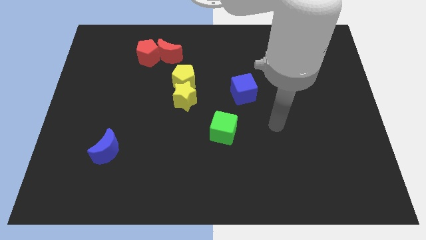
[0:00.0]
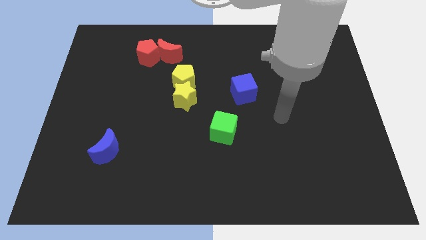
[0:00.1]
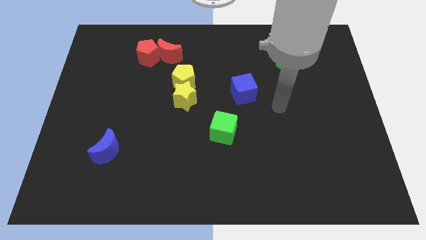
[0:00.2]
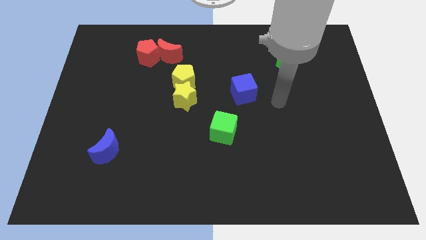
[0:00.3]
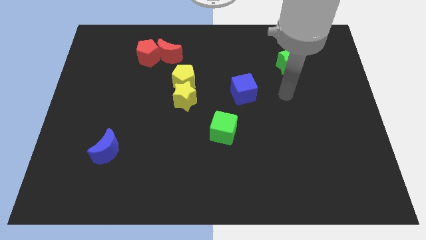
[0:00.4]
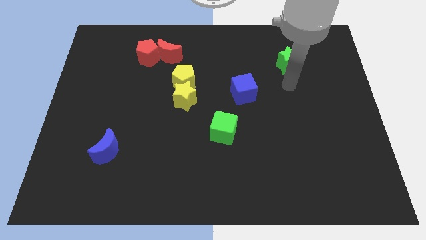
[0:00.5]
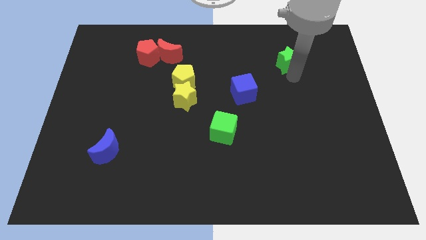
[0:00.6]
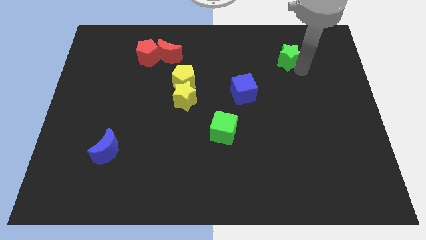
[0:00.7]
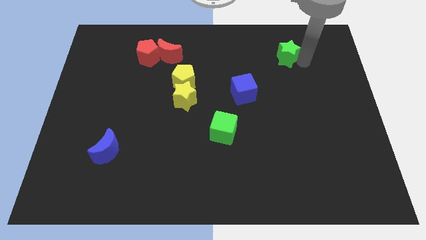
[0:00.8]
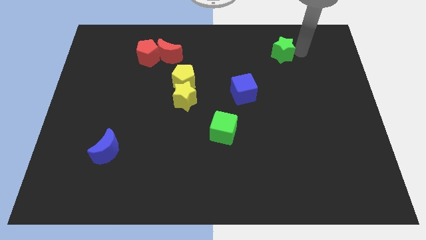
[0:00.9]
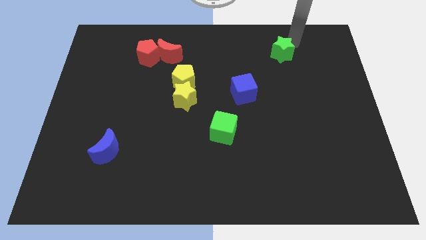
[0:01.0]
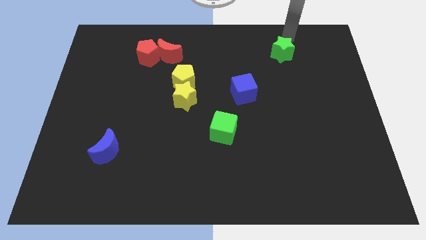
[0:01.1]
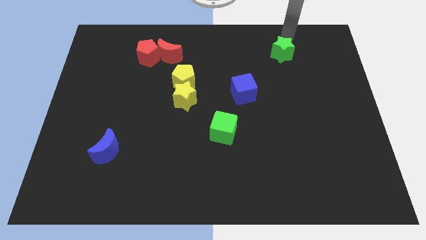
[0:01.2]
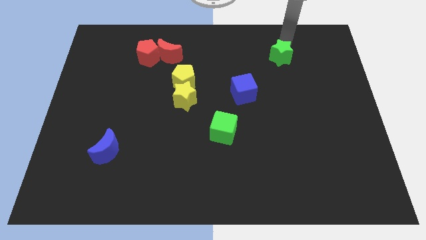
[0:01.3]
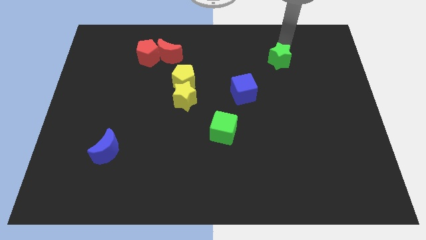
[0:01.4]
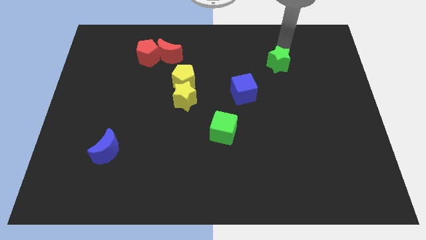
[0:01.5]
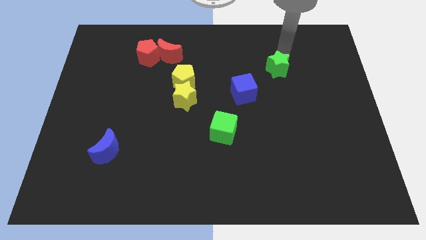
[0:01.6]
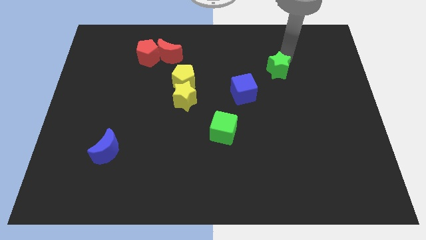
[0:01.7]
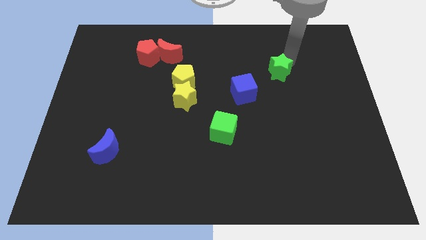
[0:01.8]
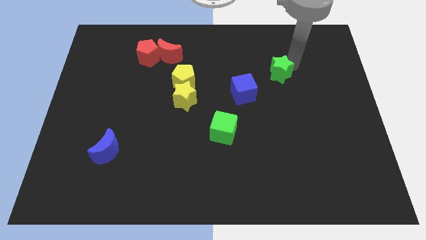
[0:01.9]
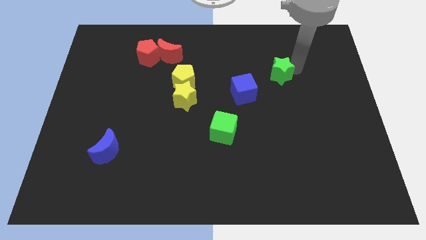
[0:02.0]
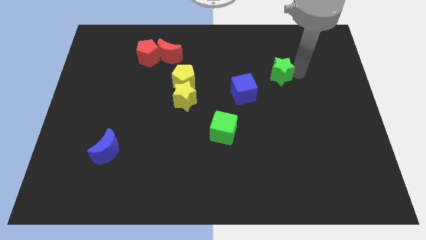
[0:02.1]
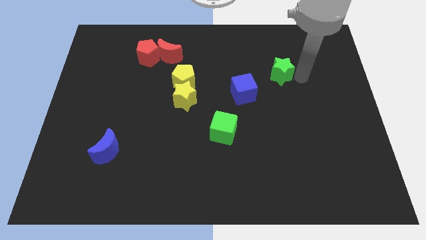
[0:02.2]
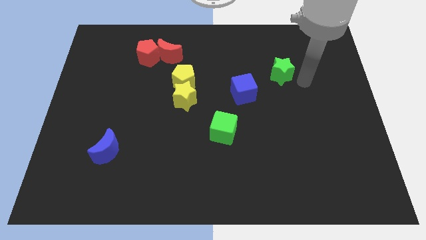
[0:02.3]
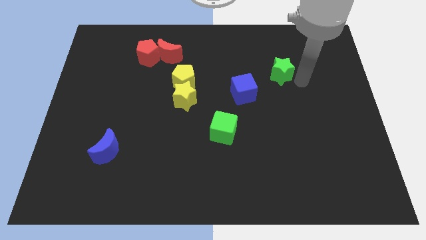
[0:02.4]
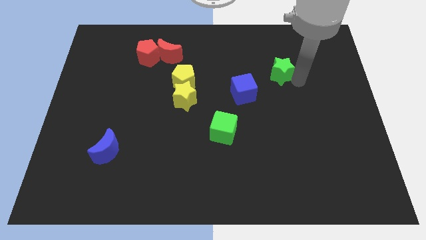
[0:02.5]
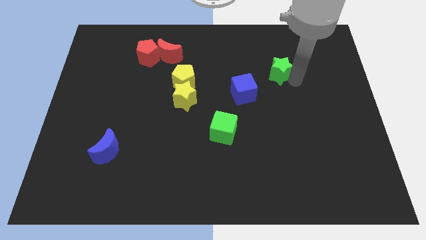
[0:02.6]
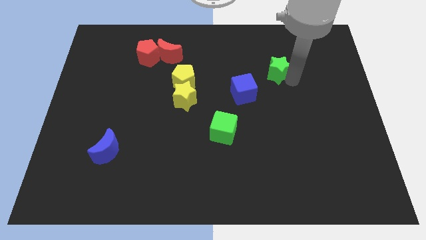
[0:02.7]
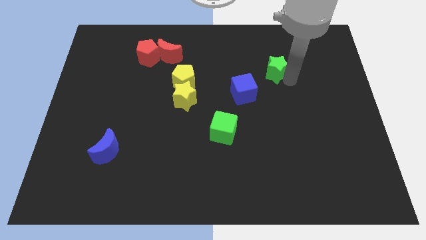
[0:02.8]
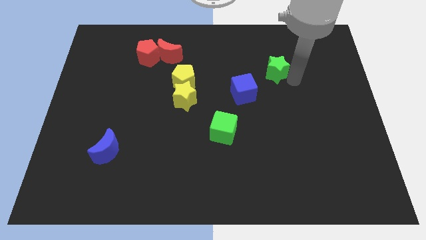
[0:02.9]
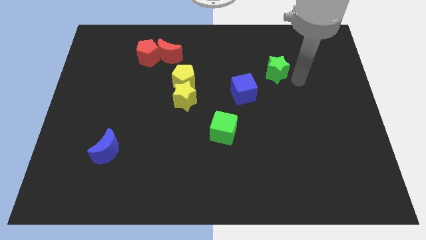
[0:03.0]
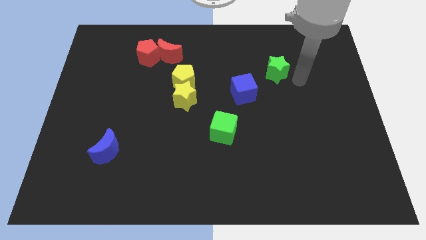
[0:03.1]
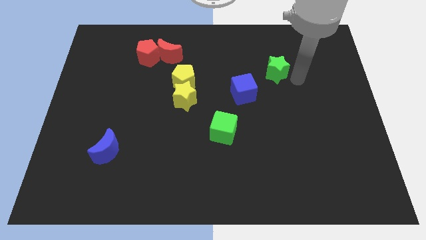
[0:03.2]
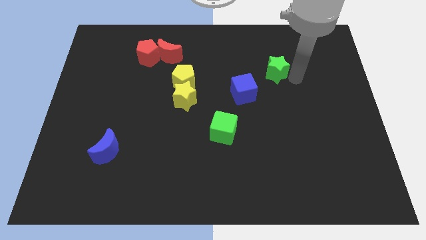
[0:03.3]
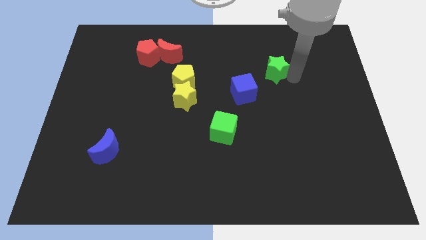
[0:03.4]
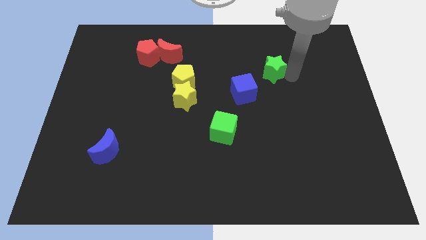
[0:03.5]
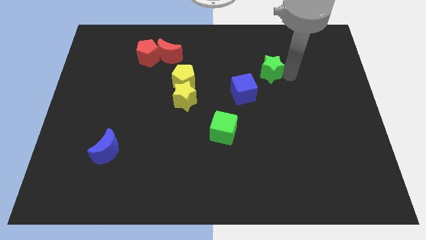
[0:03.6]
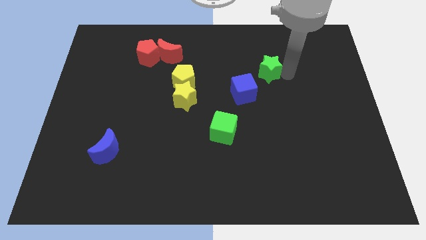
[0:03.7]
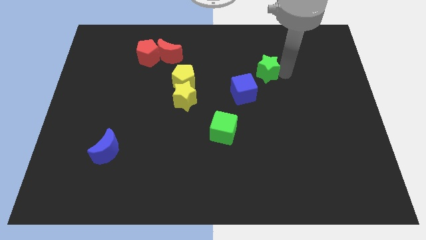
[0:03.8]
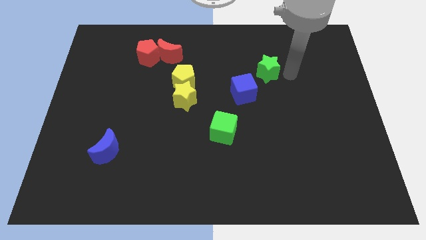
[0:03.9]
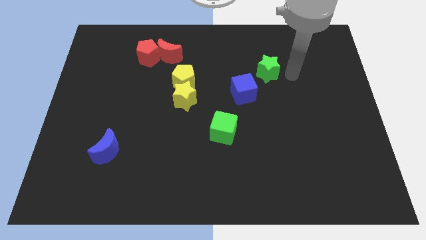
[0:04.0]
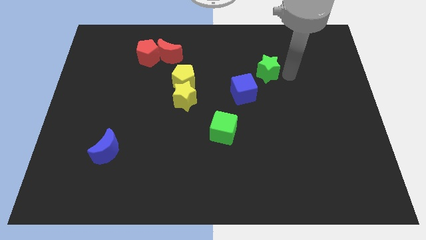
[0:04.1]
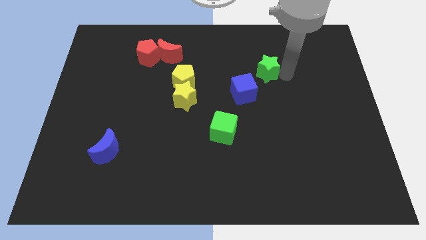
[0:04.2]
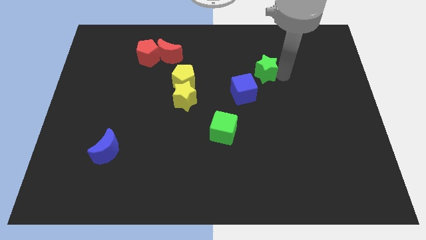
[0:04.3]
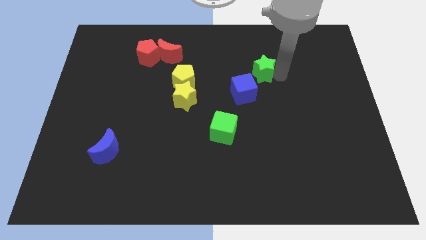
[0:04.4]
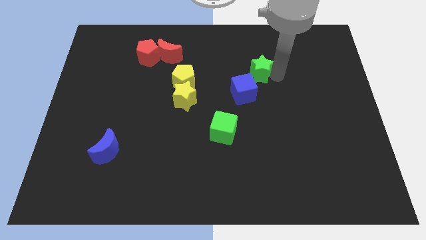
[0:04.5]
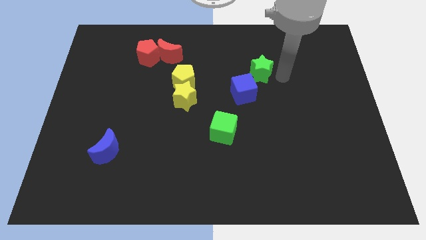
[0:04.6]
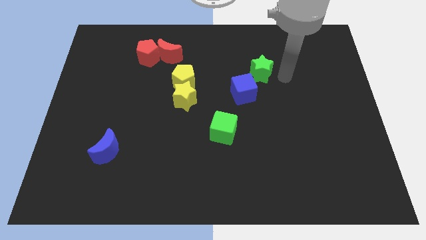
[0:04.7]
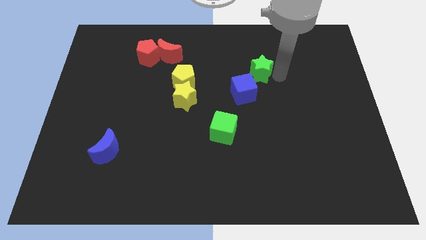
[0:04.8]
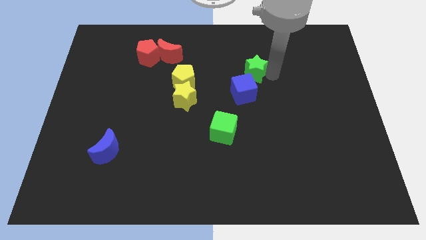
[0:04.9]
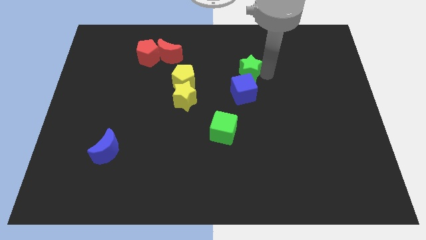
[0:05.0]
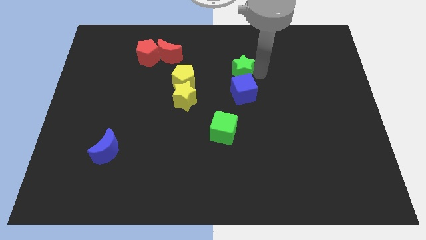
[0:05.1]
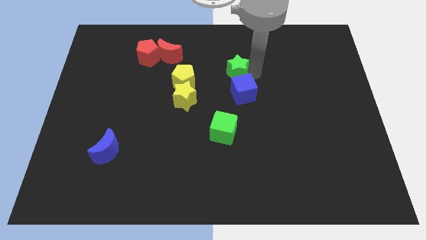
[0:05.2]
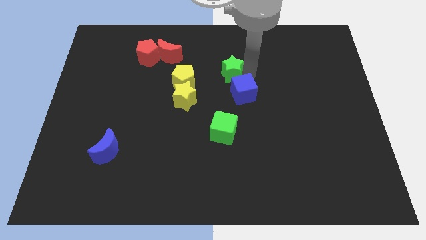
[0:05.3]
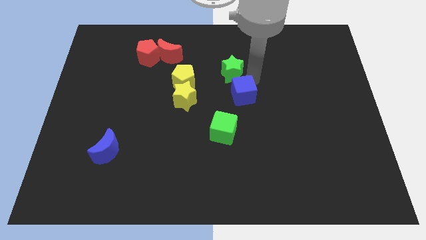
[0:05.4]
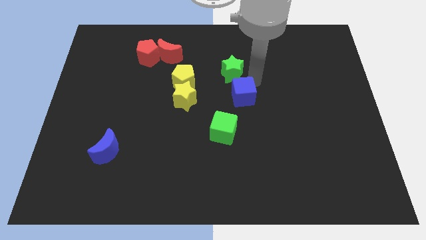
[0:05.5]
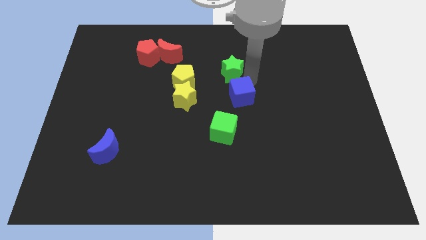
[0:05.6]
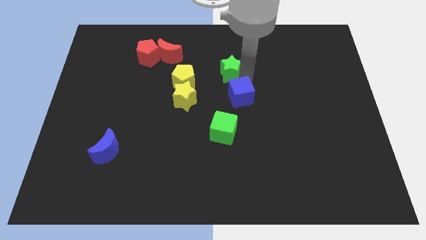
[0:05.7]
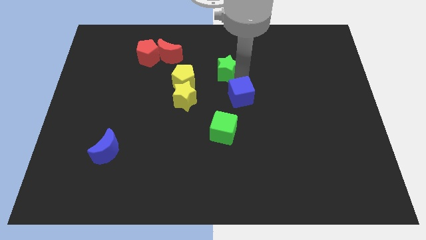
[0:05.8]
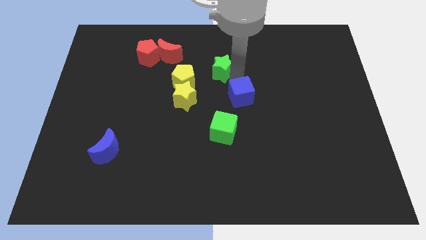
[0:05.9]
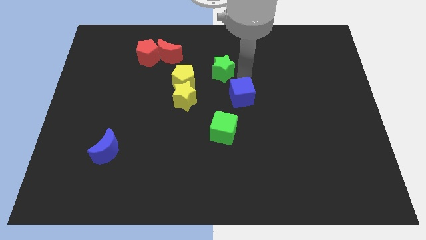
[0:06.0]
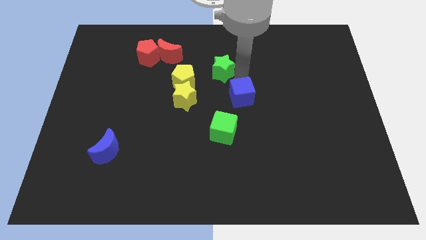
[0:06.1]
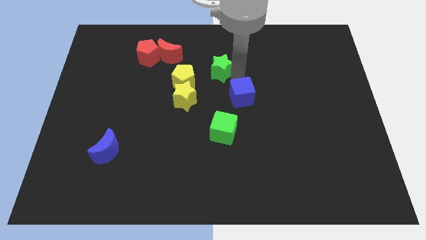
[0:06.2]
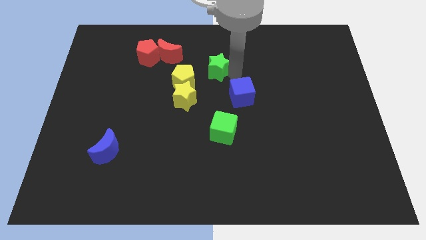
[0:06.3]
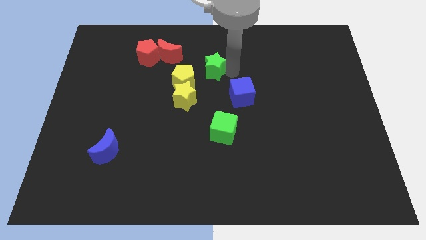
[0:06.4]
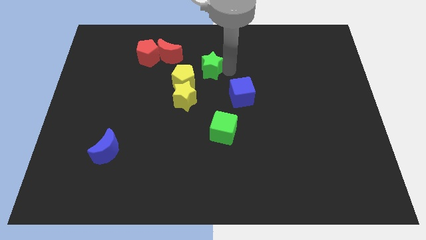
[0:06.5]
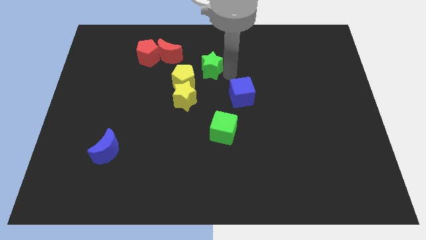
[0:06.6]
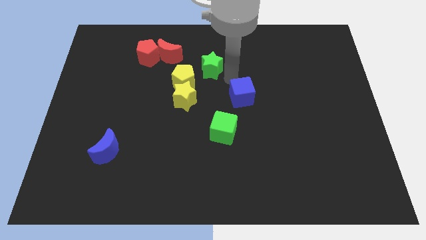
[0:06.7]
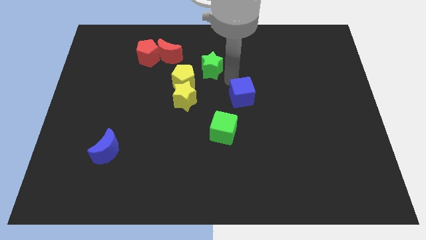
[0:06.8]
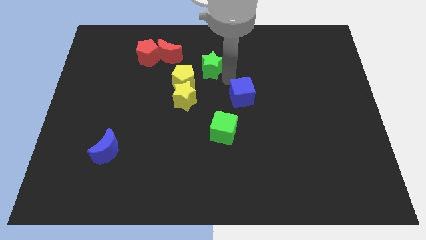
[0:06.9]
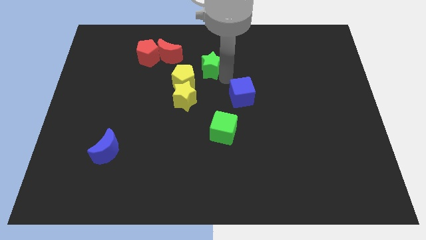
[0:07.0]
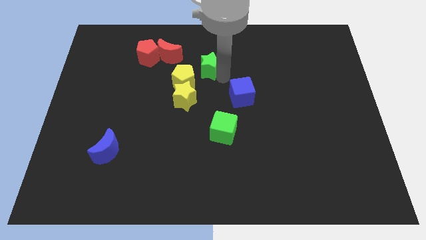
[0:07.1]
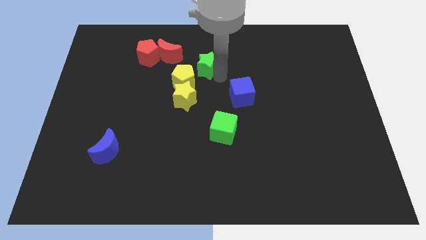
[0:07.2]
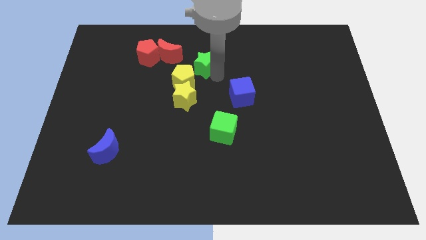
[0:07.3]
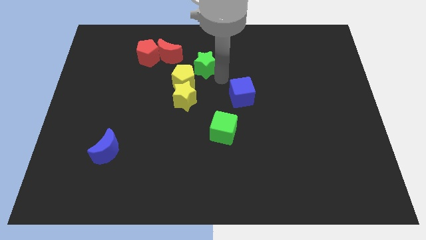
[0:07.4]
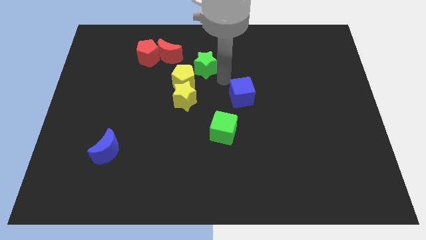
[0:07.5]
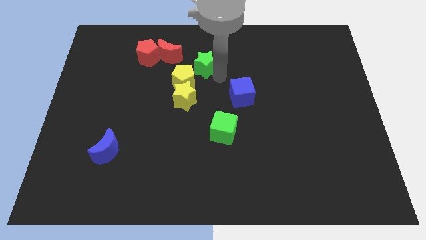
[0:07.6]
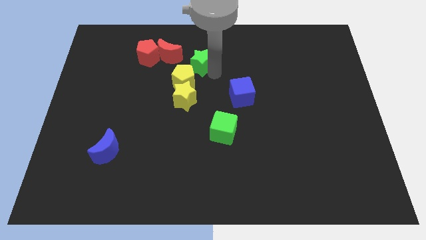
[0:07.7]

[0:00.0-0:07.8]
push the green star just right of the red pentagon
